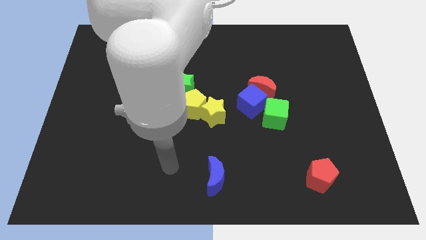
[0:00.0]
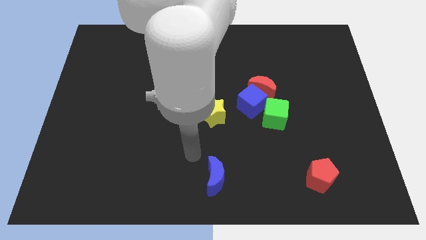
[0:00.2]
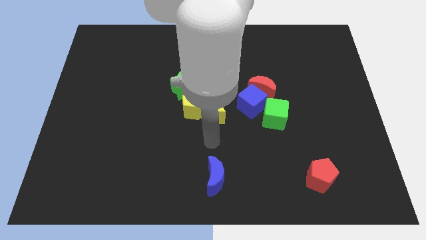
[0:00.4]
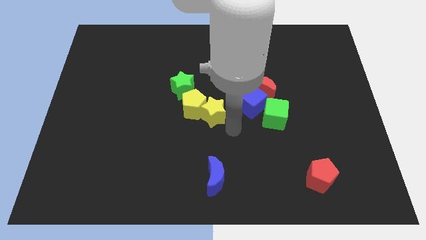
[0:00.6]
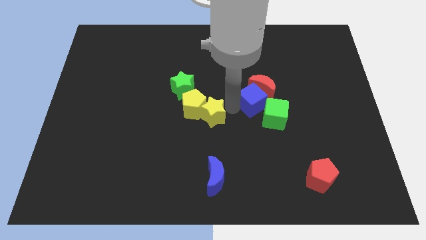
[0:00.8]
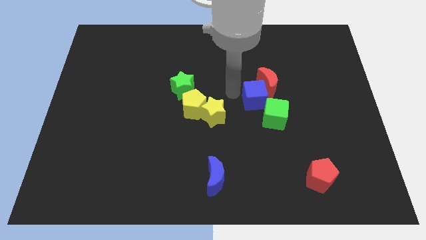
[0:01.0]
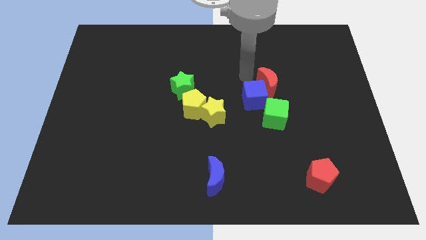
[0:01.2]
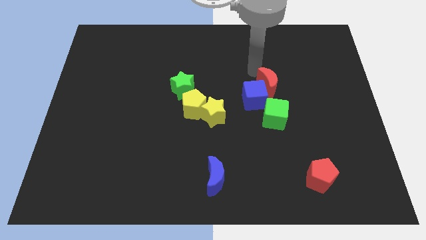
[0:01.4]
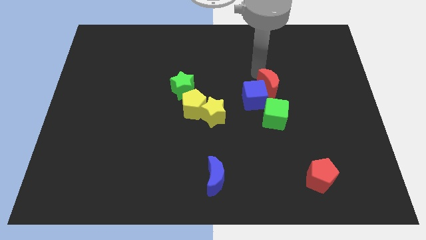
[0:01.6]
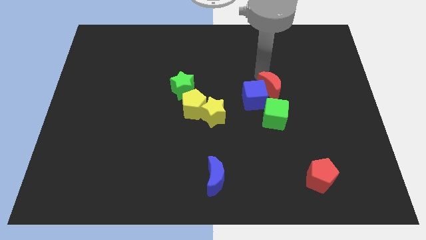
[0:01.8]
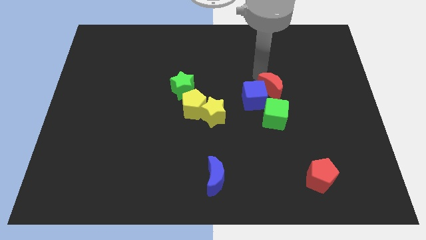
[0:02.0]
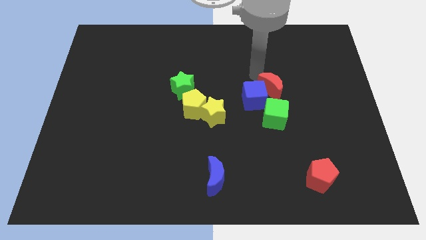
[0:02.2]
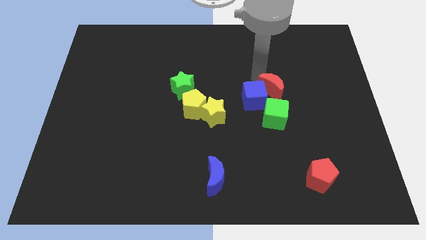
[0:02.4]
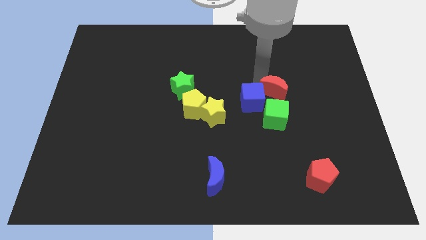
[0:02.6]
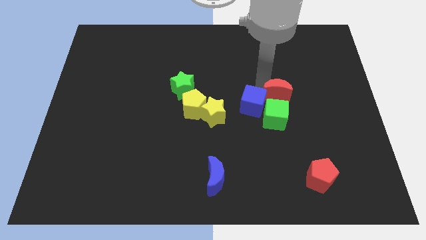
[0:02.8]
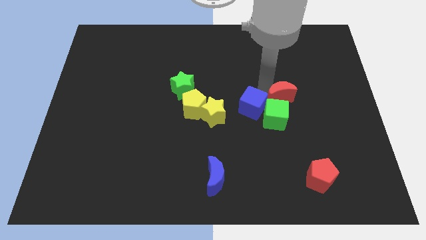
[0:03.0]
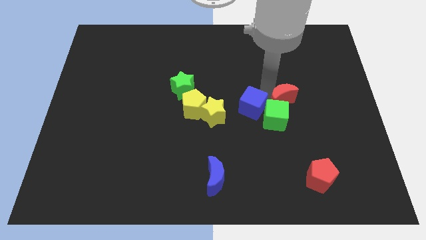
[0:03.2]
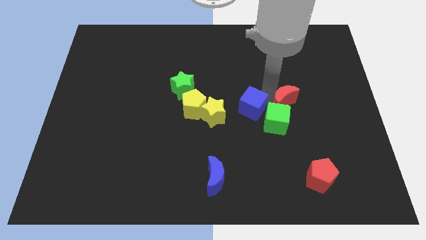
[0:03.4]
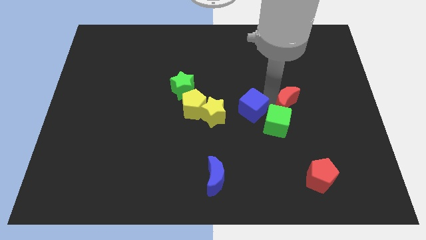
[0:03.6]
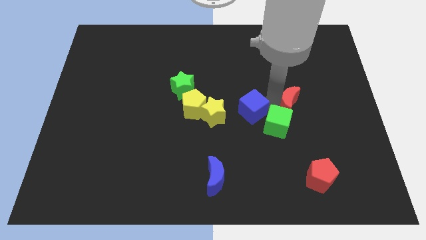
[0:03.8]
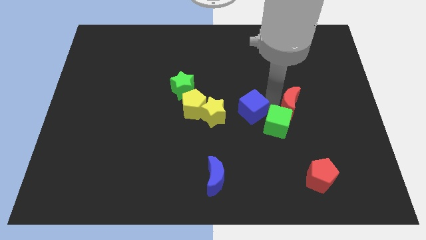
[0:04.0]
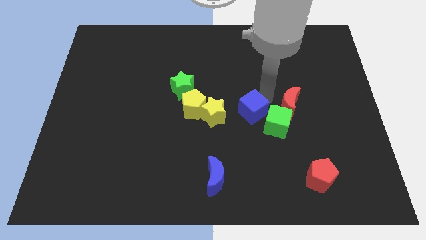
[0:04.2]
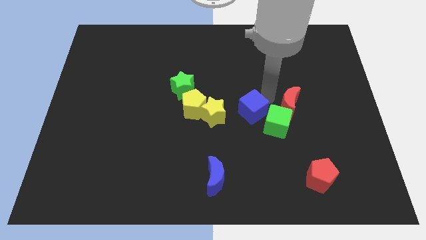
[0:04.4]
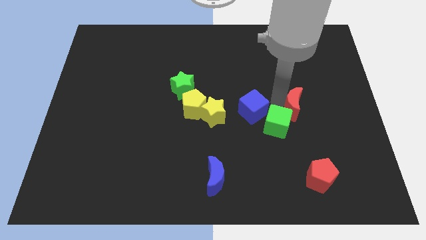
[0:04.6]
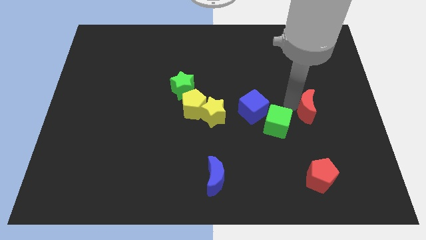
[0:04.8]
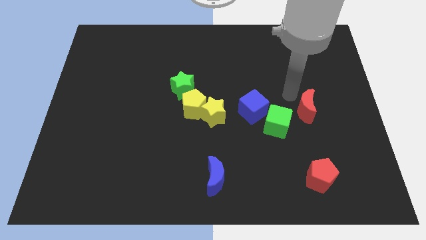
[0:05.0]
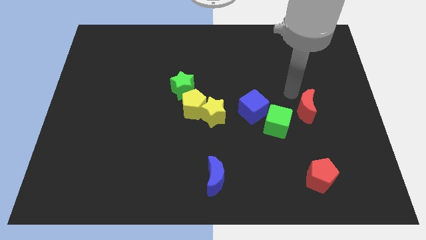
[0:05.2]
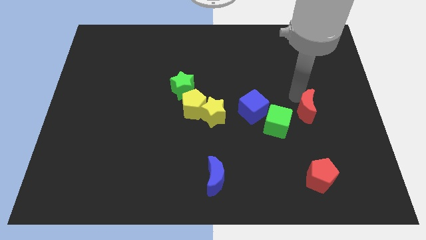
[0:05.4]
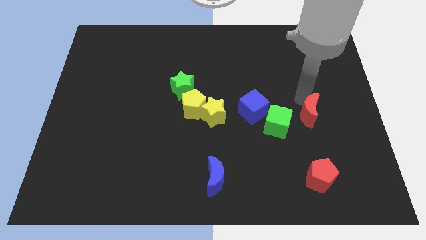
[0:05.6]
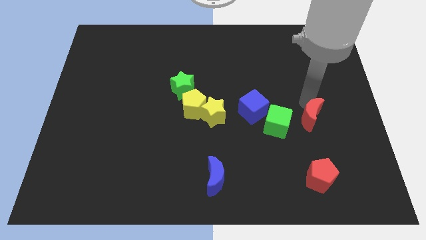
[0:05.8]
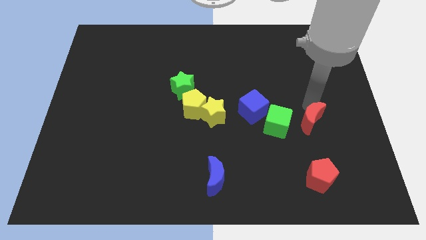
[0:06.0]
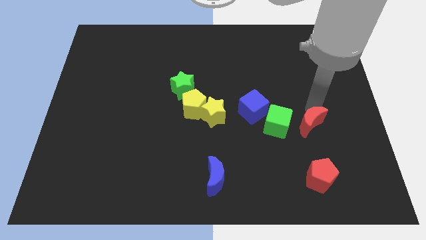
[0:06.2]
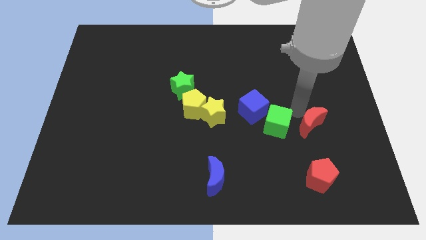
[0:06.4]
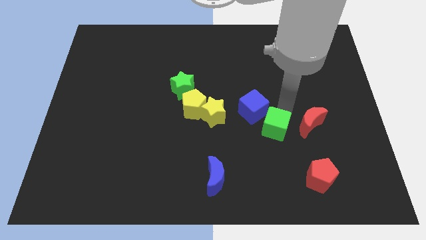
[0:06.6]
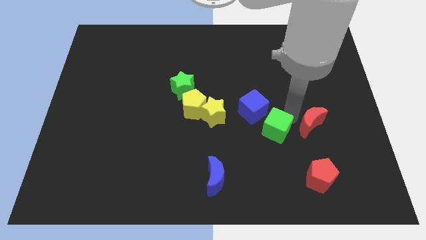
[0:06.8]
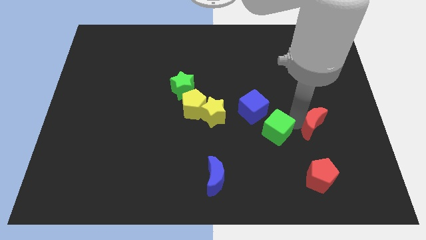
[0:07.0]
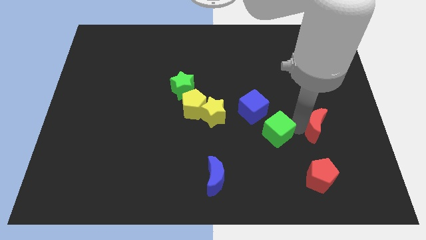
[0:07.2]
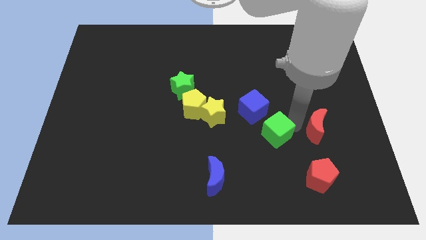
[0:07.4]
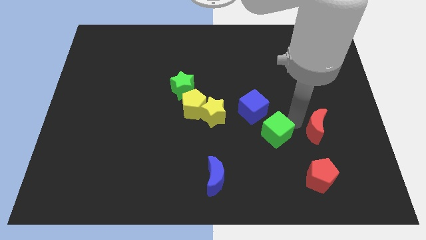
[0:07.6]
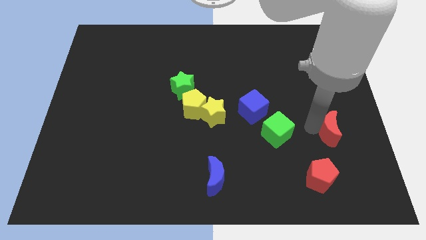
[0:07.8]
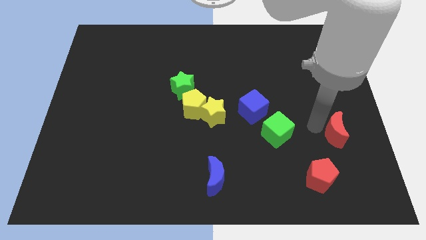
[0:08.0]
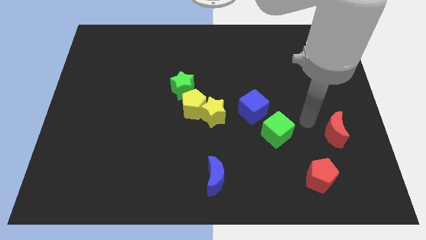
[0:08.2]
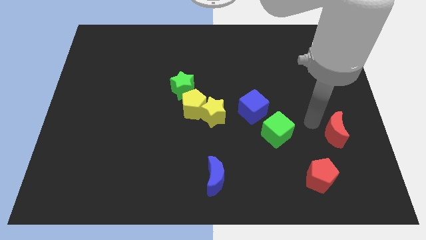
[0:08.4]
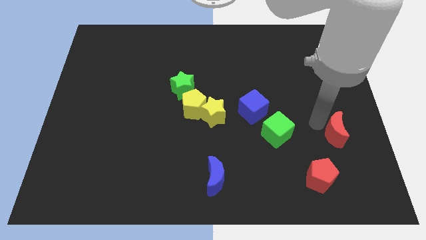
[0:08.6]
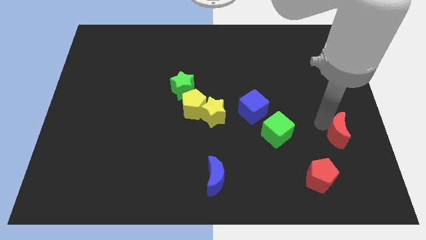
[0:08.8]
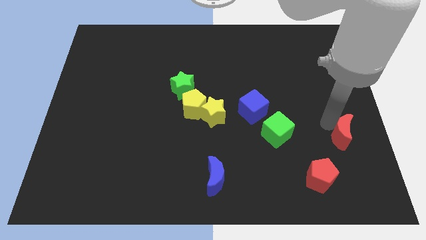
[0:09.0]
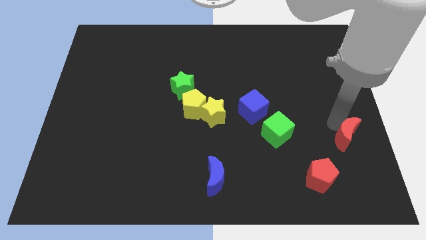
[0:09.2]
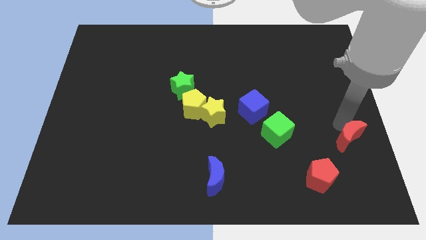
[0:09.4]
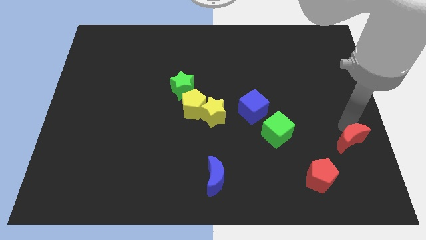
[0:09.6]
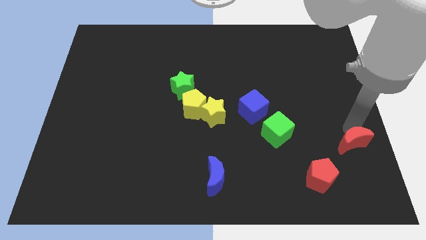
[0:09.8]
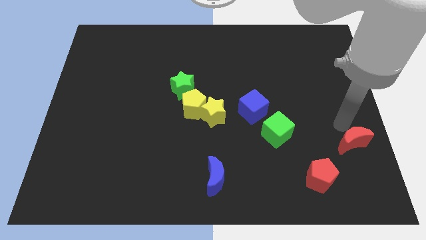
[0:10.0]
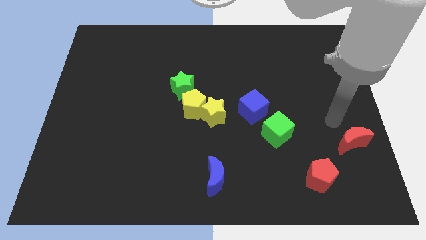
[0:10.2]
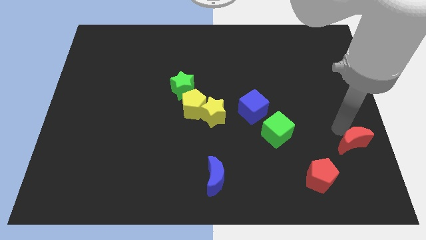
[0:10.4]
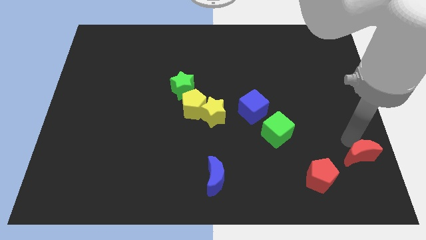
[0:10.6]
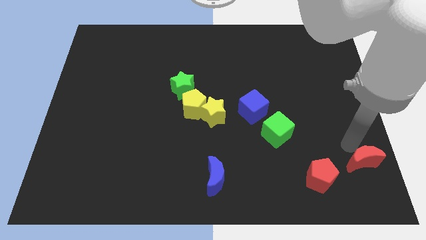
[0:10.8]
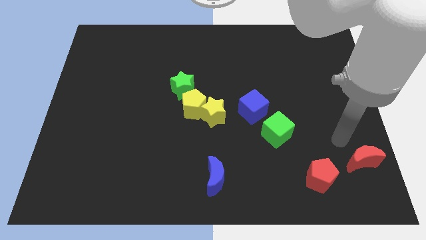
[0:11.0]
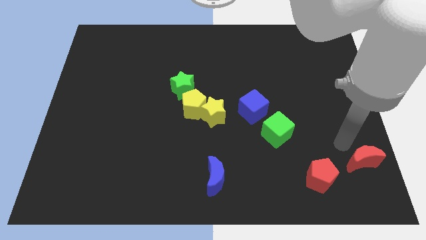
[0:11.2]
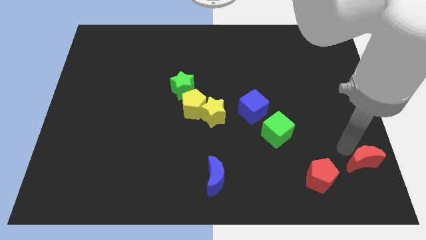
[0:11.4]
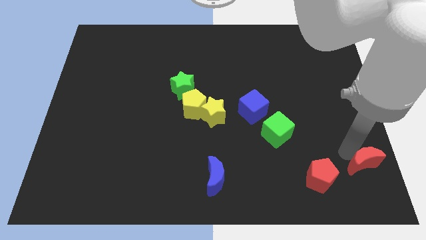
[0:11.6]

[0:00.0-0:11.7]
push the red moon to the bottom right corner
